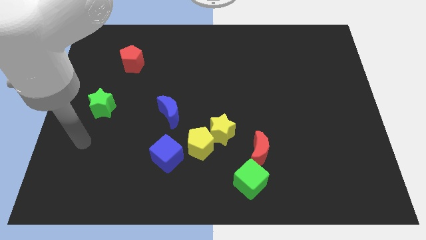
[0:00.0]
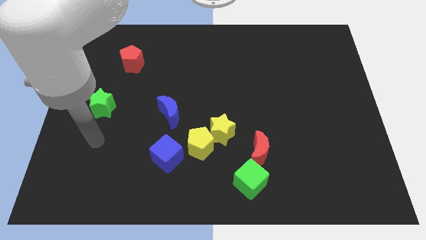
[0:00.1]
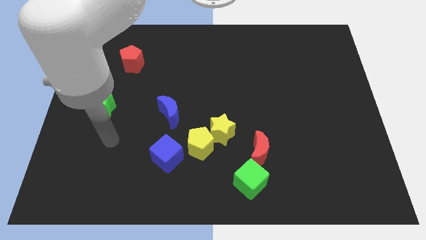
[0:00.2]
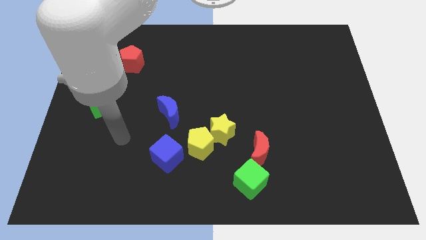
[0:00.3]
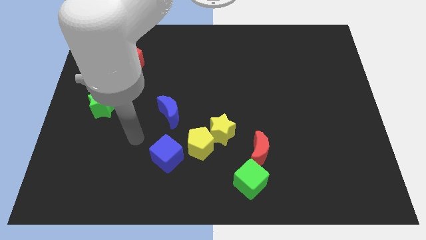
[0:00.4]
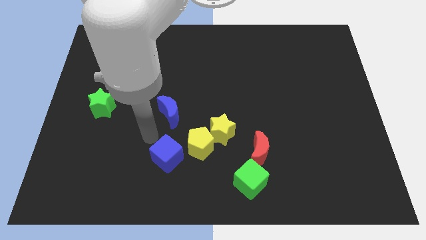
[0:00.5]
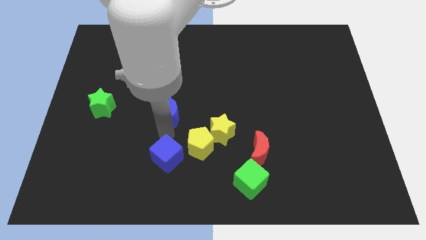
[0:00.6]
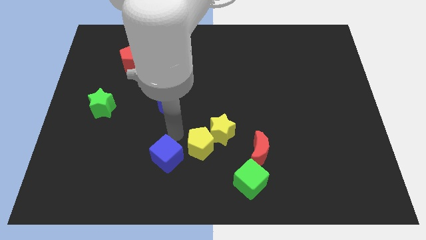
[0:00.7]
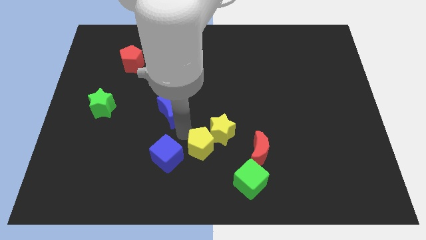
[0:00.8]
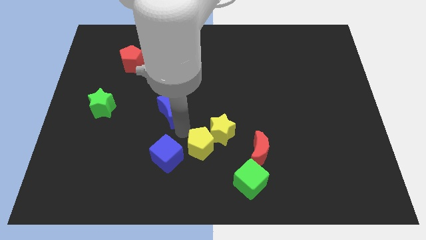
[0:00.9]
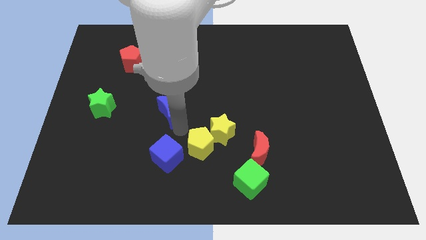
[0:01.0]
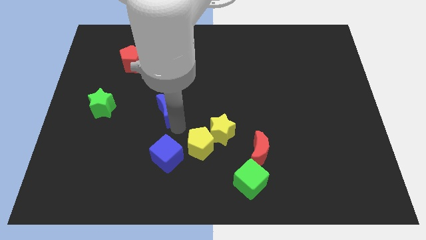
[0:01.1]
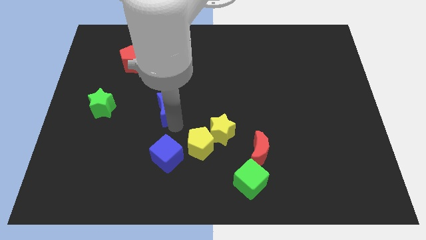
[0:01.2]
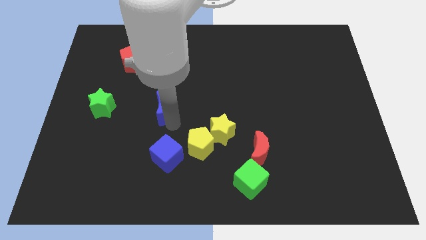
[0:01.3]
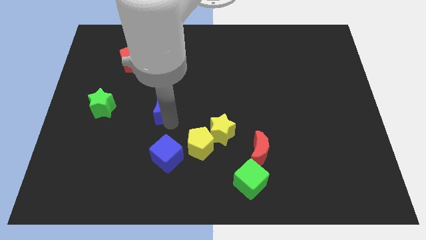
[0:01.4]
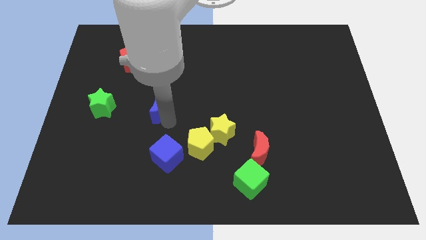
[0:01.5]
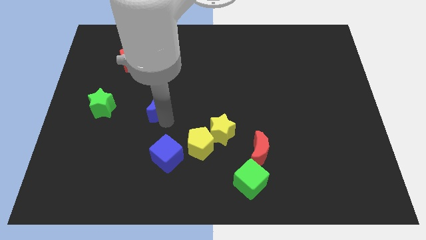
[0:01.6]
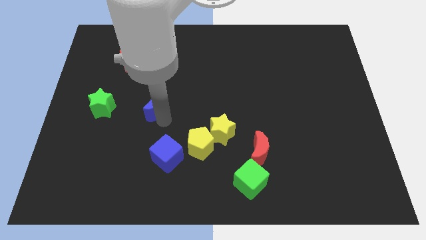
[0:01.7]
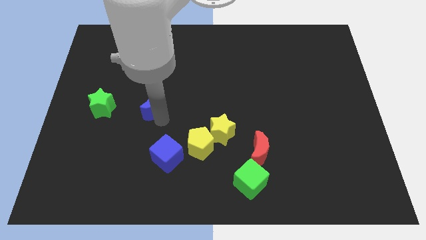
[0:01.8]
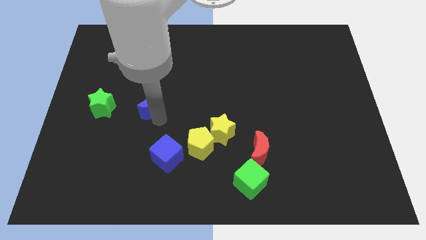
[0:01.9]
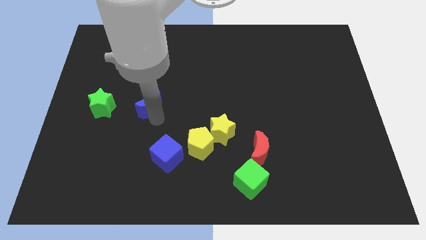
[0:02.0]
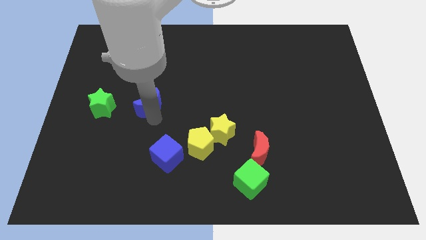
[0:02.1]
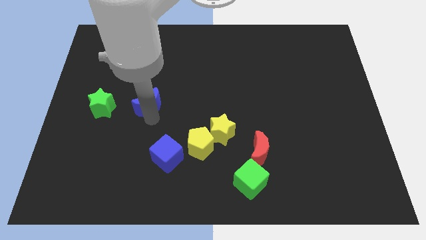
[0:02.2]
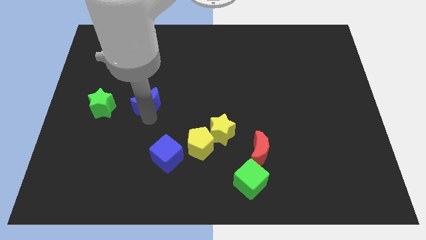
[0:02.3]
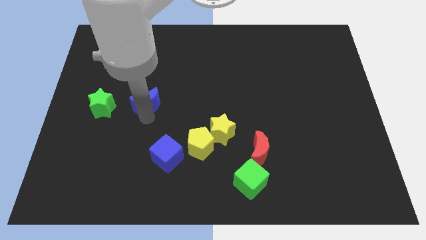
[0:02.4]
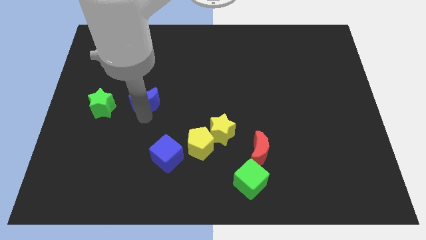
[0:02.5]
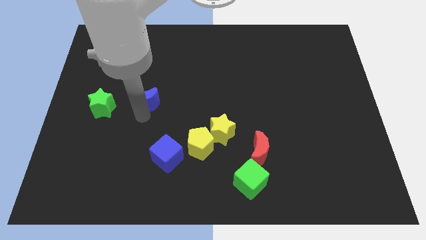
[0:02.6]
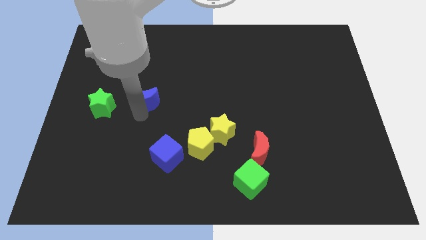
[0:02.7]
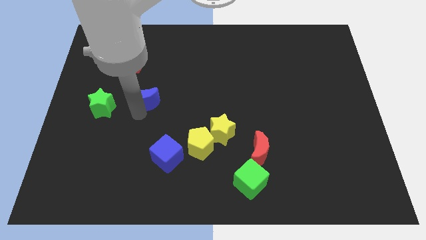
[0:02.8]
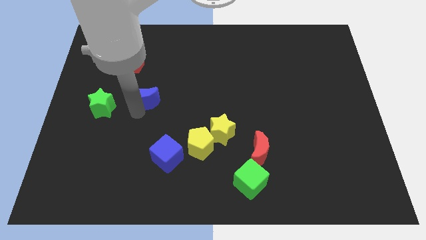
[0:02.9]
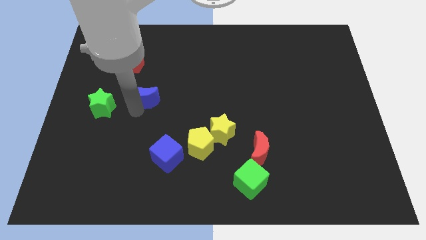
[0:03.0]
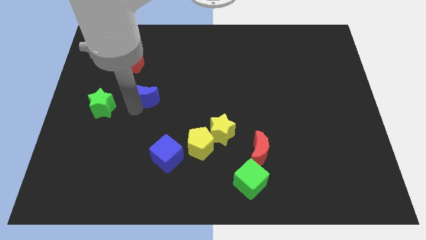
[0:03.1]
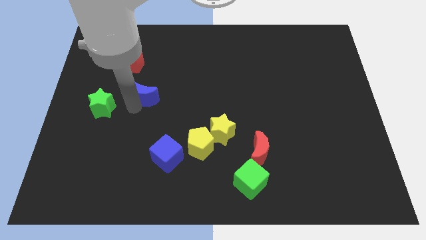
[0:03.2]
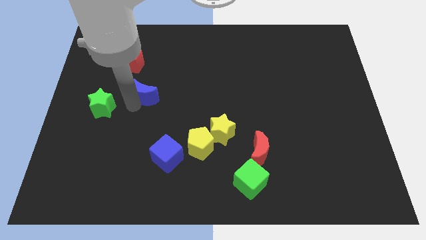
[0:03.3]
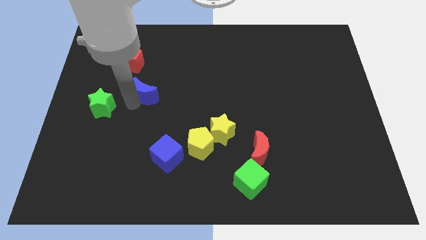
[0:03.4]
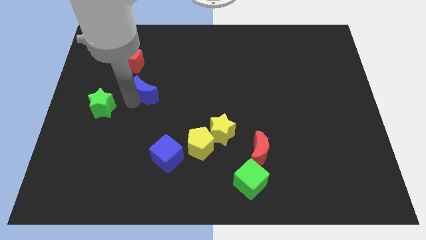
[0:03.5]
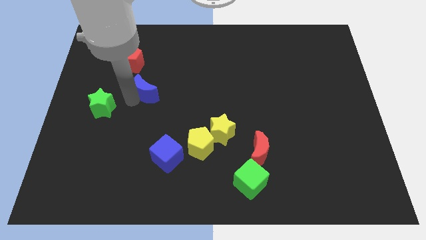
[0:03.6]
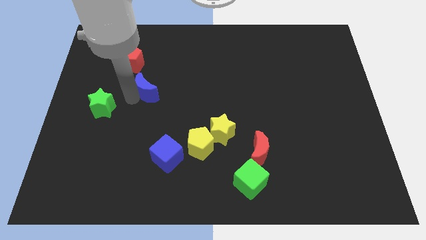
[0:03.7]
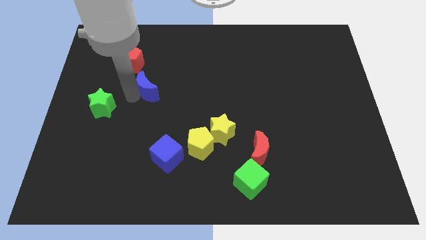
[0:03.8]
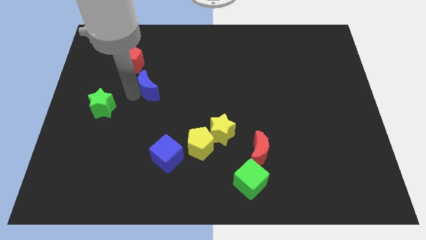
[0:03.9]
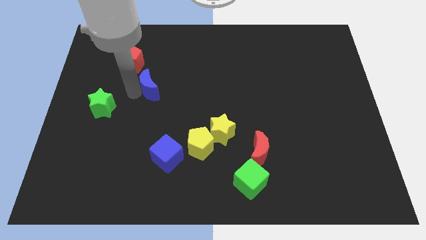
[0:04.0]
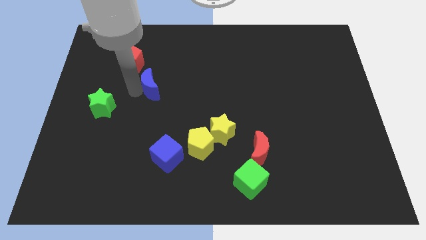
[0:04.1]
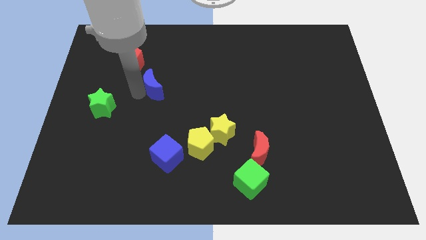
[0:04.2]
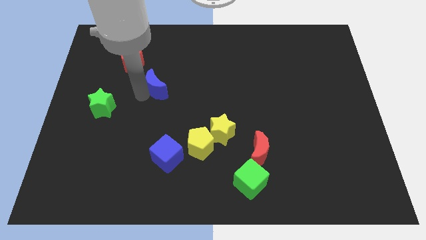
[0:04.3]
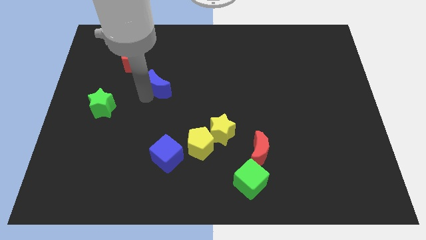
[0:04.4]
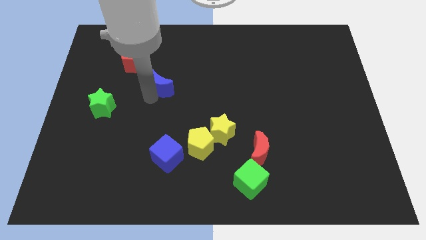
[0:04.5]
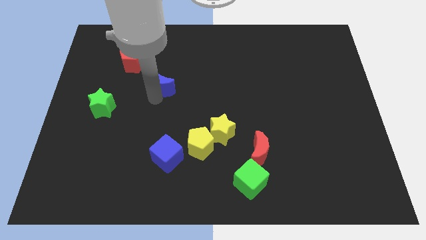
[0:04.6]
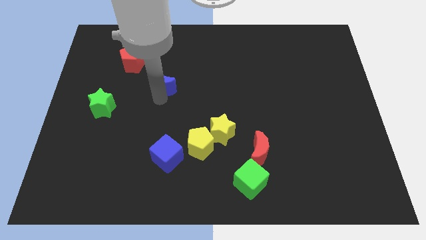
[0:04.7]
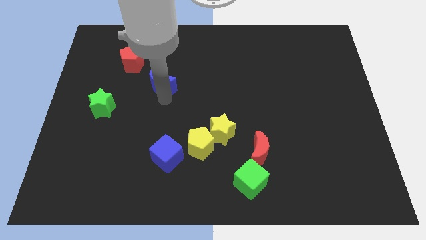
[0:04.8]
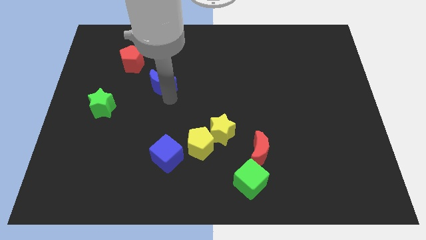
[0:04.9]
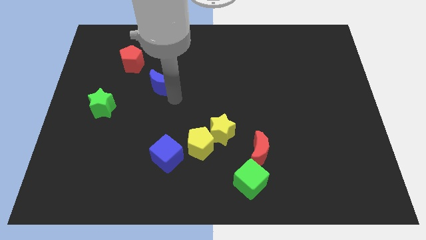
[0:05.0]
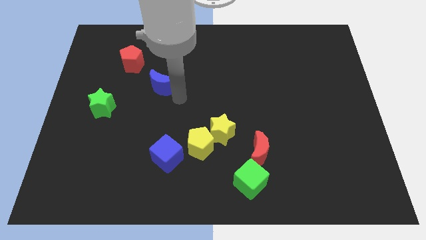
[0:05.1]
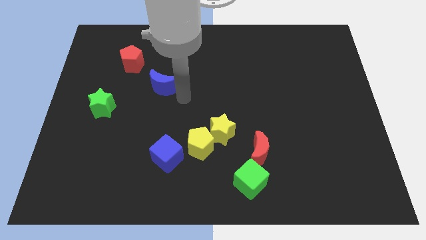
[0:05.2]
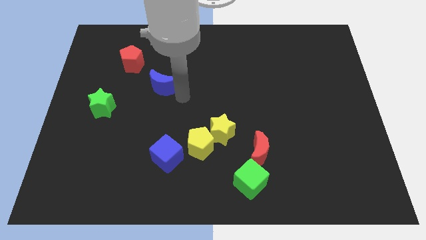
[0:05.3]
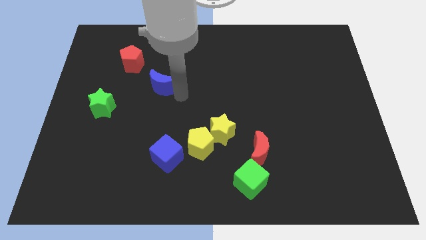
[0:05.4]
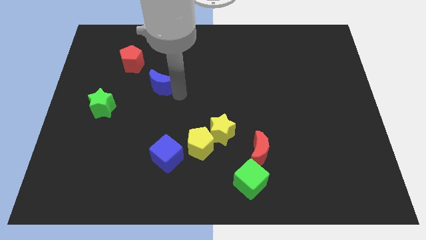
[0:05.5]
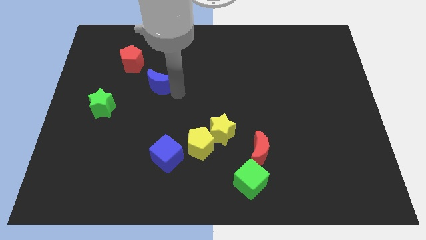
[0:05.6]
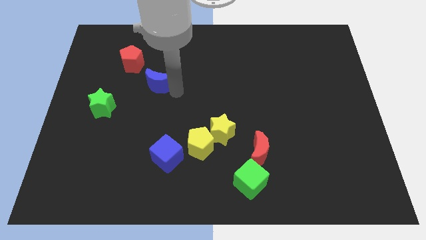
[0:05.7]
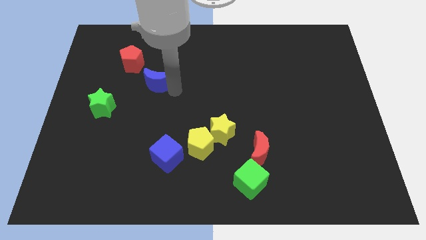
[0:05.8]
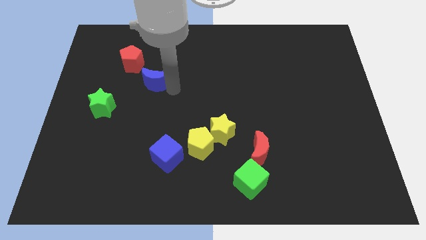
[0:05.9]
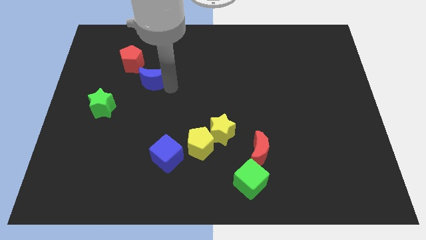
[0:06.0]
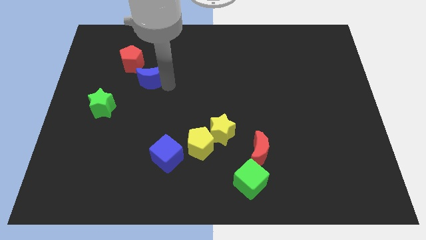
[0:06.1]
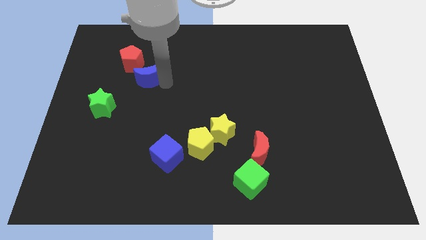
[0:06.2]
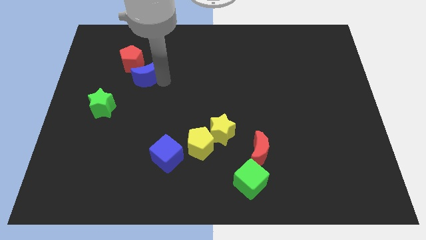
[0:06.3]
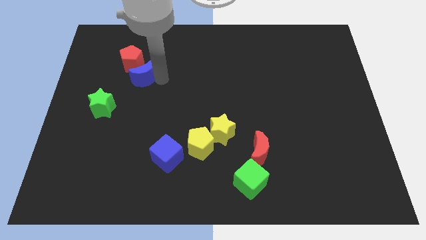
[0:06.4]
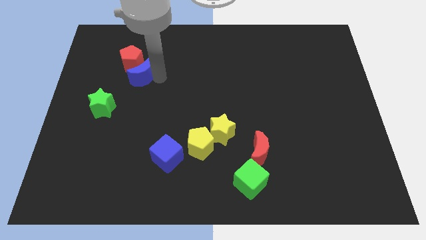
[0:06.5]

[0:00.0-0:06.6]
move the blue moon close to the red pentagon

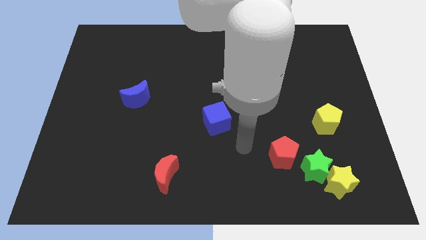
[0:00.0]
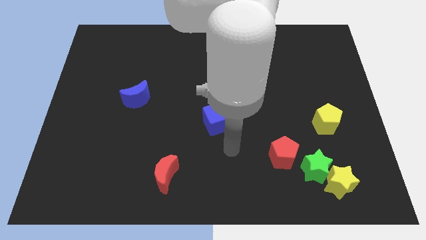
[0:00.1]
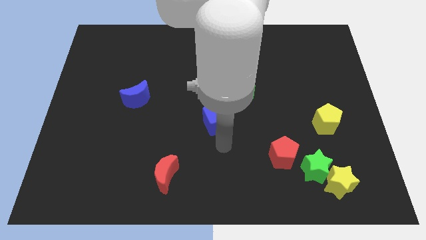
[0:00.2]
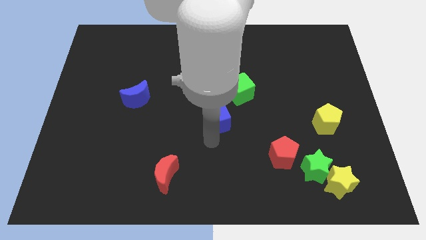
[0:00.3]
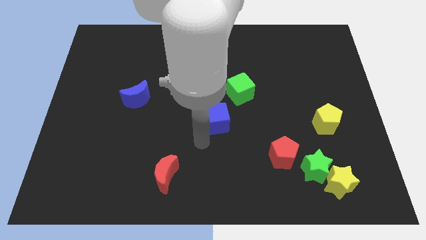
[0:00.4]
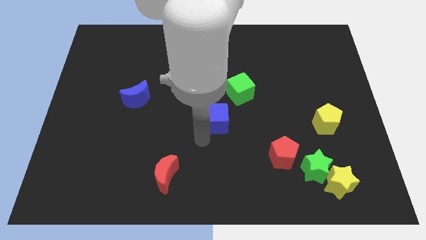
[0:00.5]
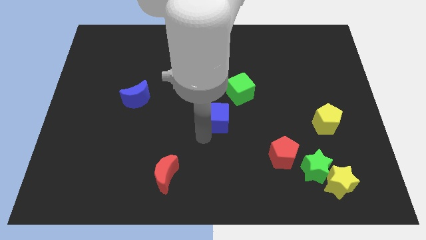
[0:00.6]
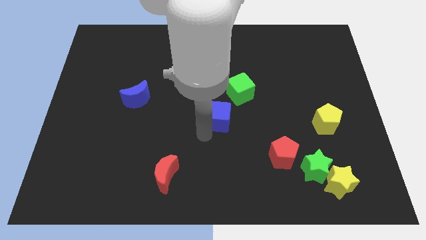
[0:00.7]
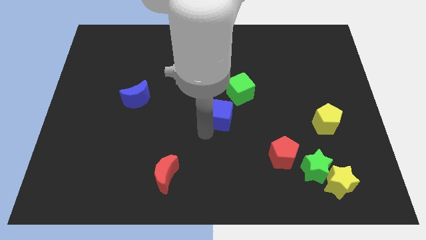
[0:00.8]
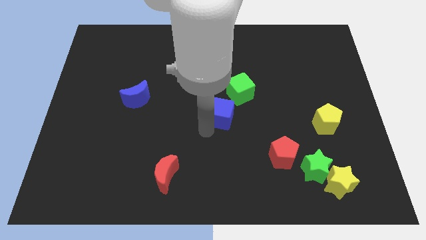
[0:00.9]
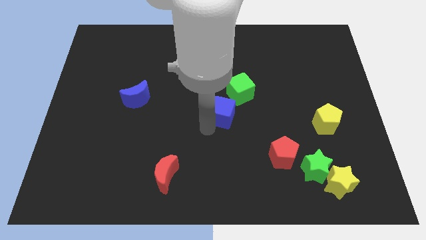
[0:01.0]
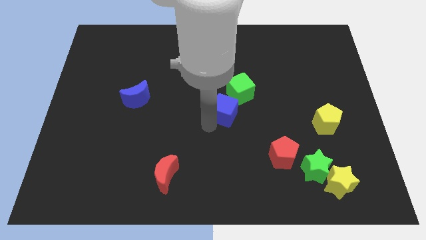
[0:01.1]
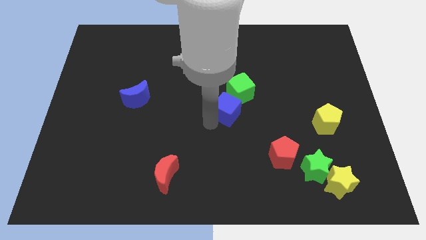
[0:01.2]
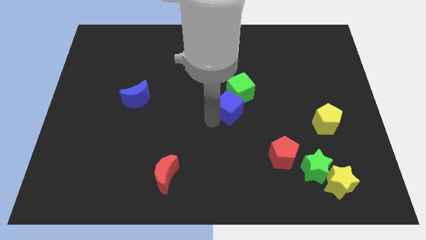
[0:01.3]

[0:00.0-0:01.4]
move the blue cube to the green cube
